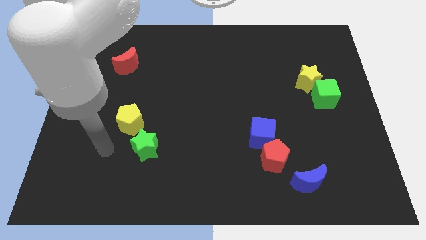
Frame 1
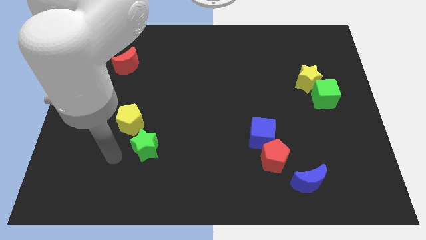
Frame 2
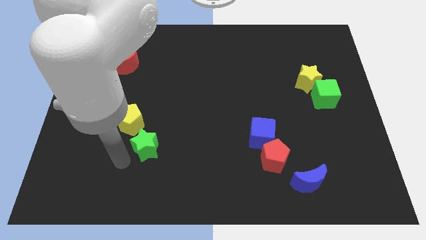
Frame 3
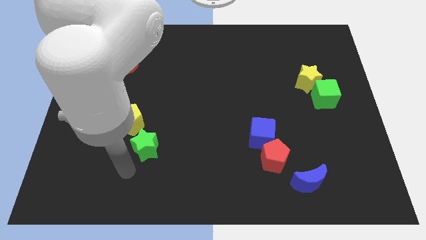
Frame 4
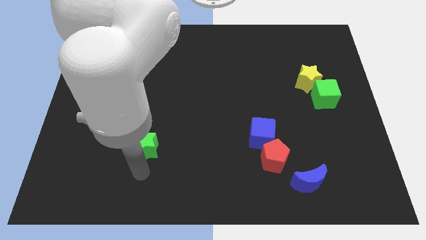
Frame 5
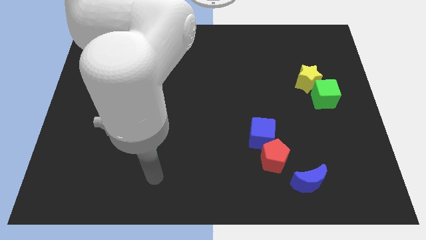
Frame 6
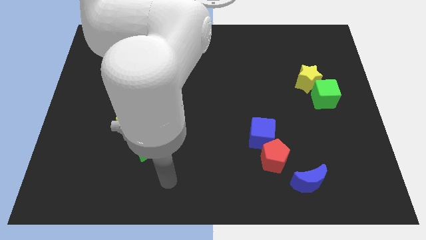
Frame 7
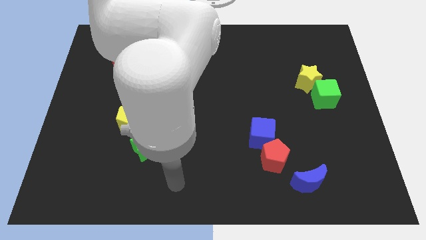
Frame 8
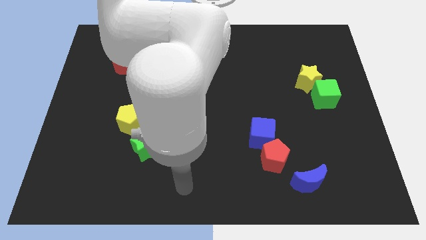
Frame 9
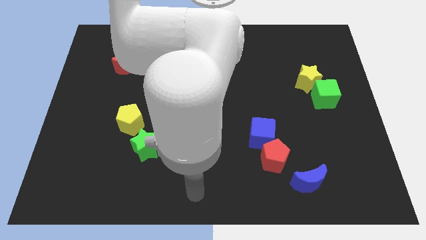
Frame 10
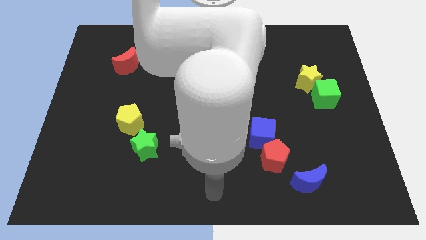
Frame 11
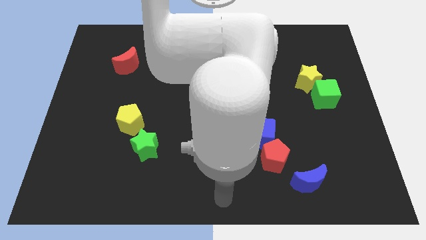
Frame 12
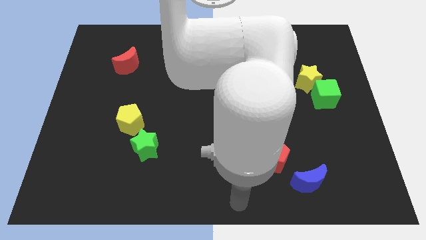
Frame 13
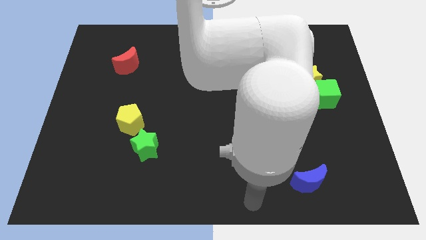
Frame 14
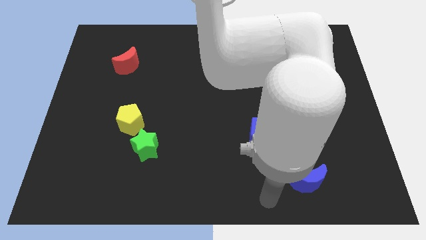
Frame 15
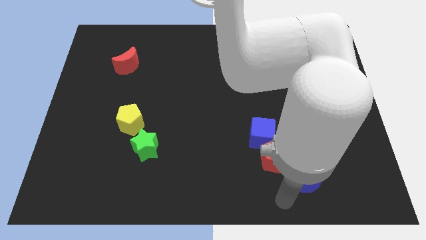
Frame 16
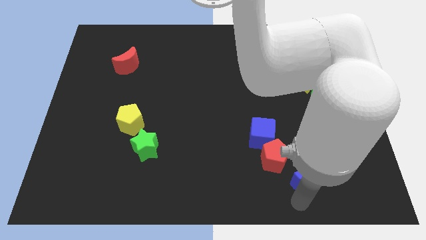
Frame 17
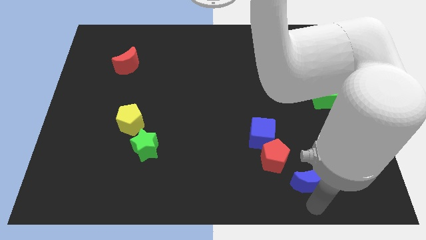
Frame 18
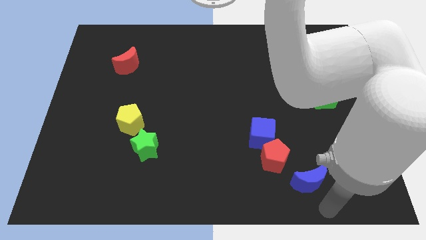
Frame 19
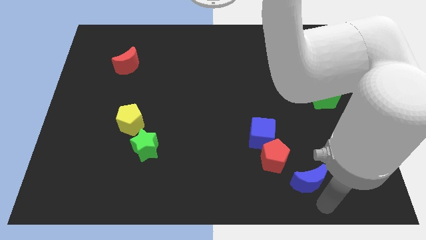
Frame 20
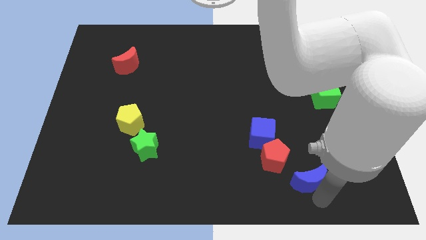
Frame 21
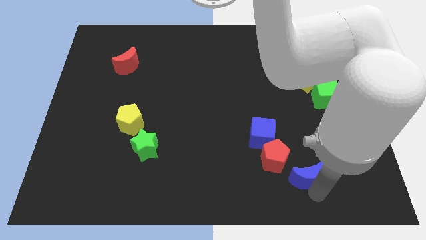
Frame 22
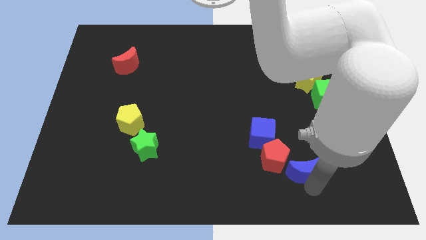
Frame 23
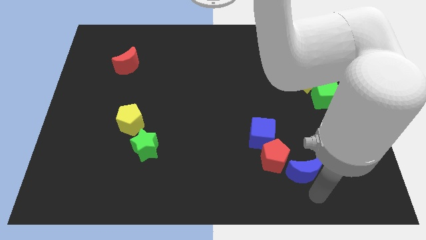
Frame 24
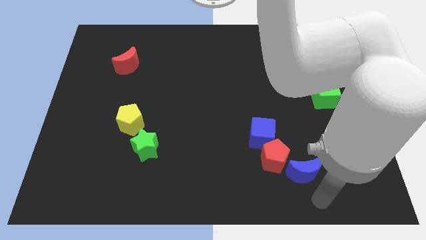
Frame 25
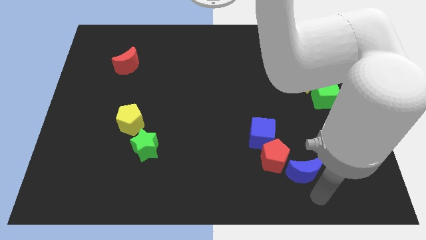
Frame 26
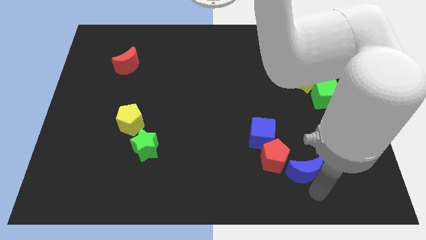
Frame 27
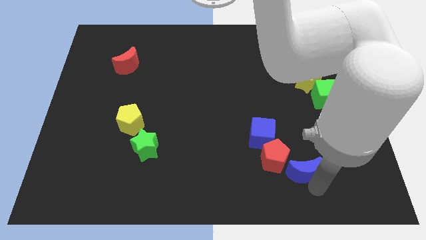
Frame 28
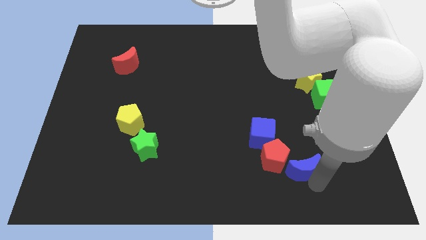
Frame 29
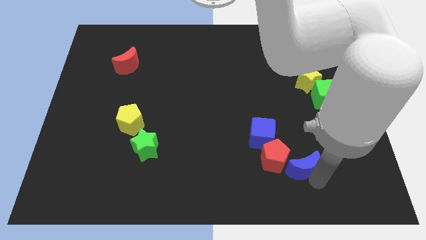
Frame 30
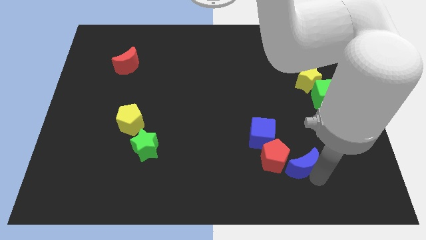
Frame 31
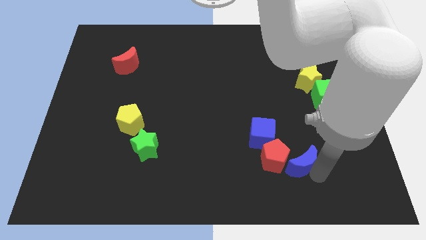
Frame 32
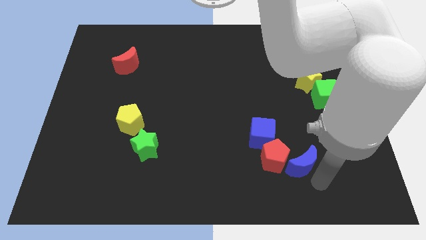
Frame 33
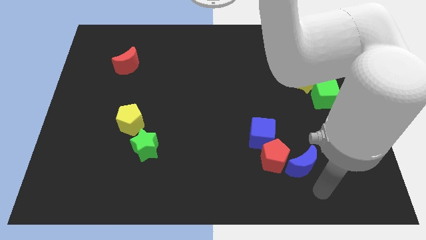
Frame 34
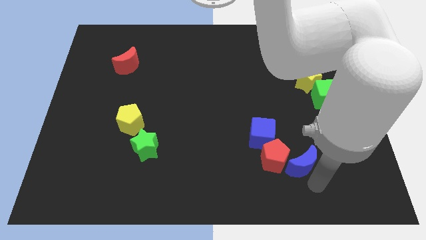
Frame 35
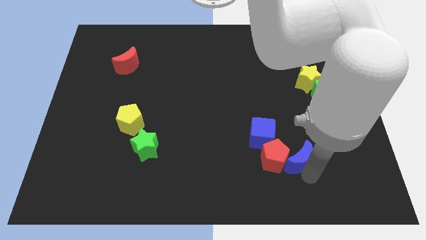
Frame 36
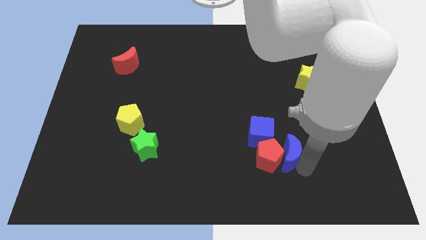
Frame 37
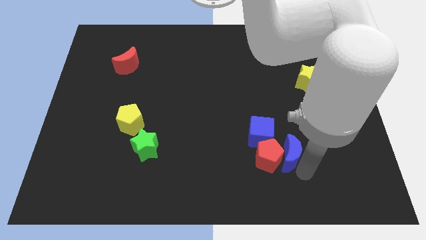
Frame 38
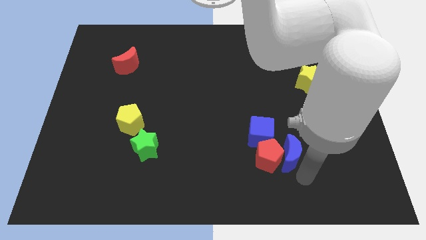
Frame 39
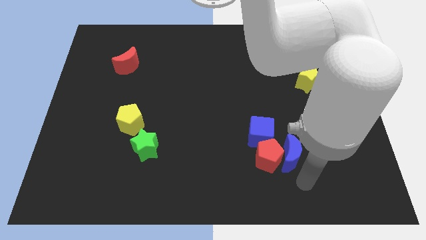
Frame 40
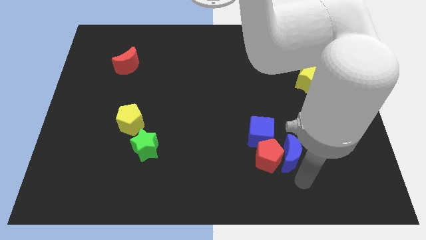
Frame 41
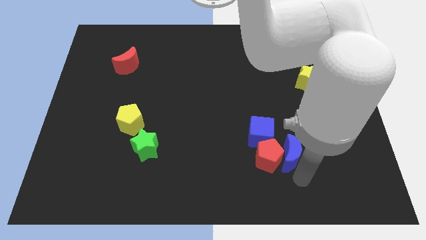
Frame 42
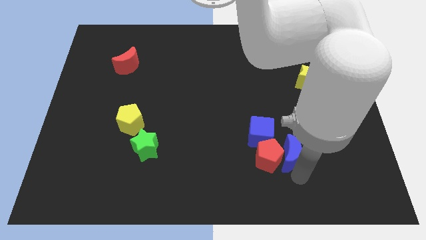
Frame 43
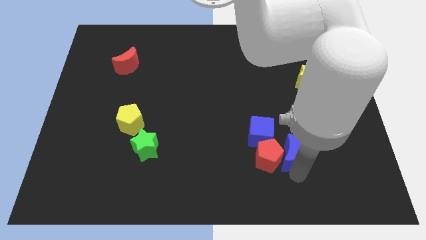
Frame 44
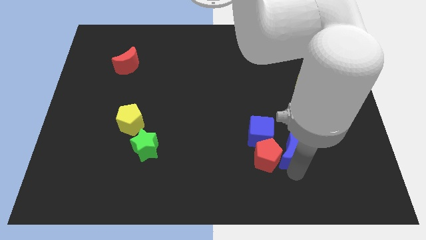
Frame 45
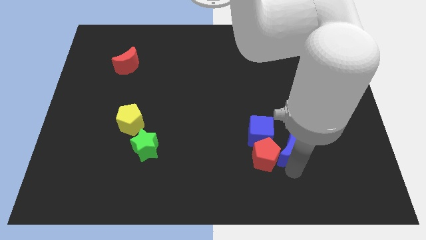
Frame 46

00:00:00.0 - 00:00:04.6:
slightly slide the blue moon up and left diagonally

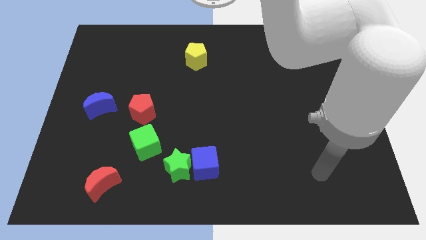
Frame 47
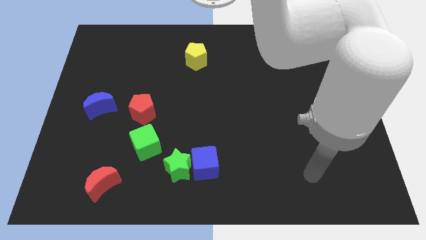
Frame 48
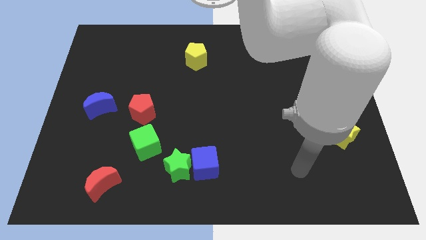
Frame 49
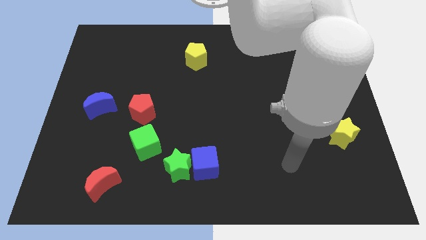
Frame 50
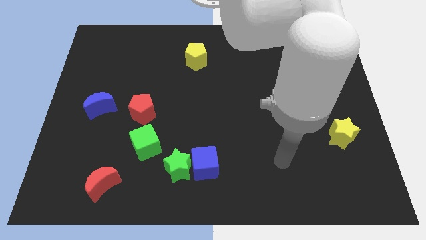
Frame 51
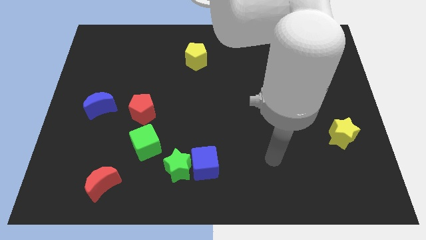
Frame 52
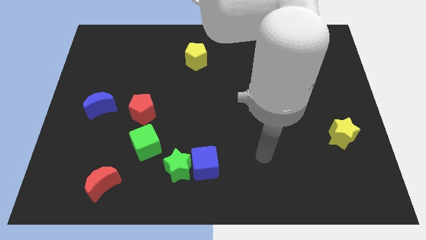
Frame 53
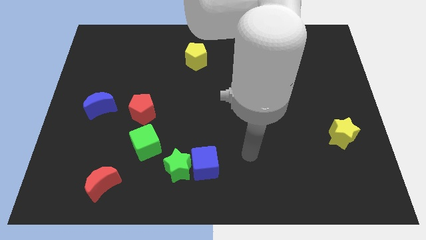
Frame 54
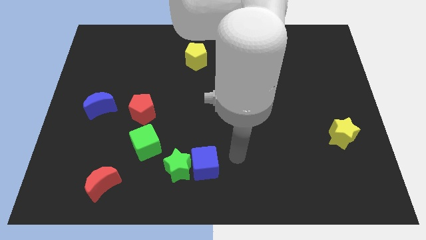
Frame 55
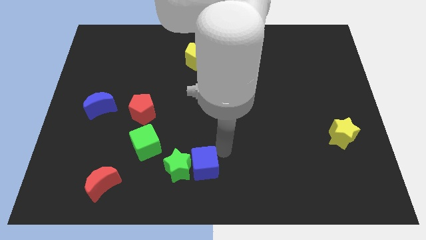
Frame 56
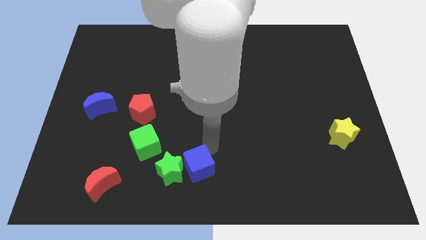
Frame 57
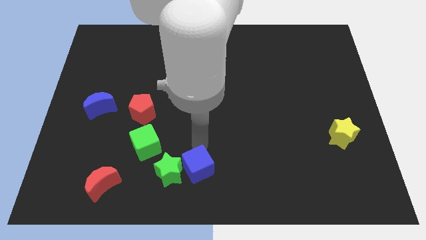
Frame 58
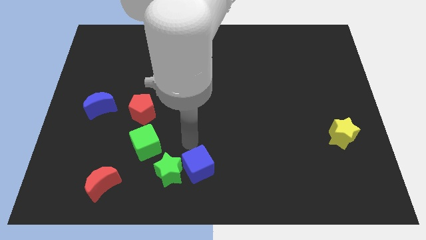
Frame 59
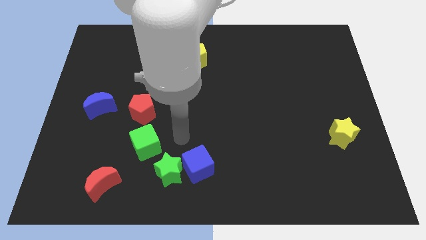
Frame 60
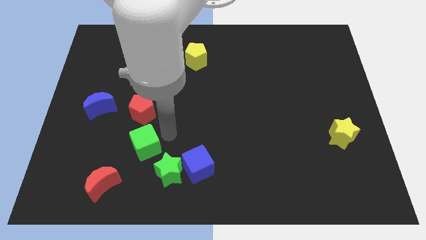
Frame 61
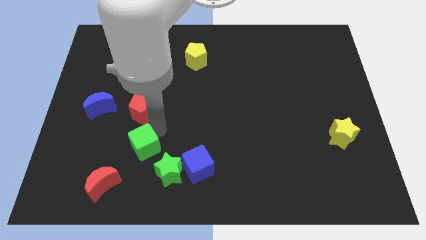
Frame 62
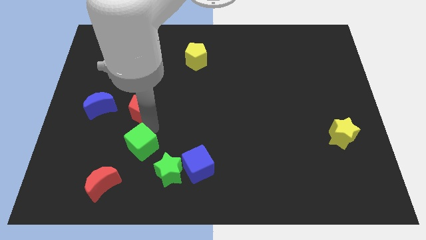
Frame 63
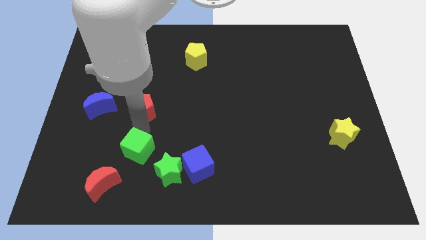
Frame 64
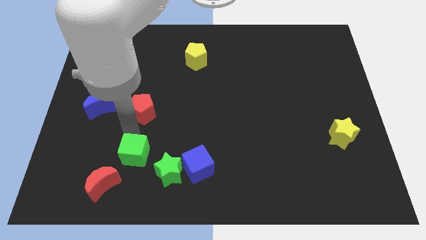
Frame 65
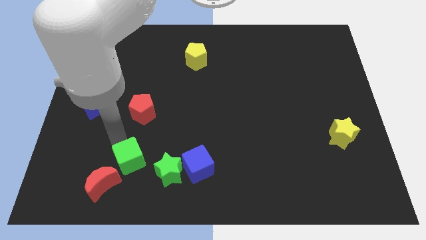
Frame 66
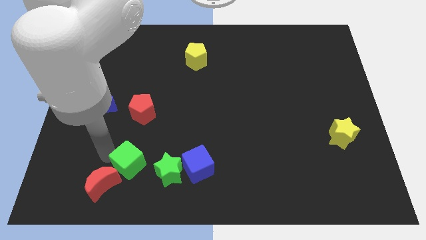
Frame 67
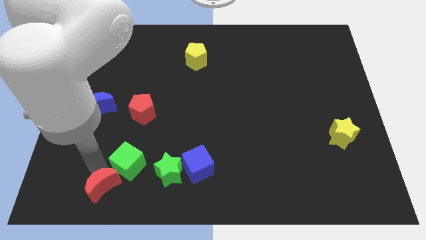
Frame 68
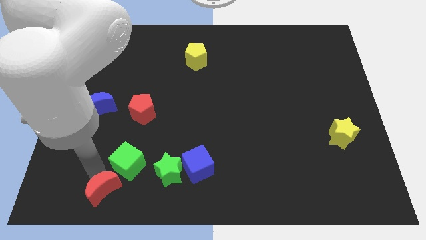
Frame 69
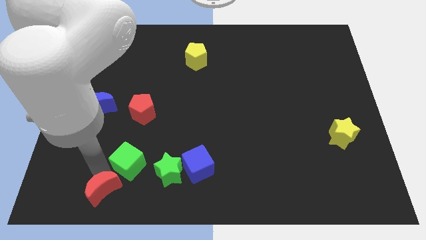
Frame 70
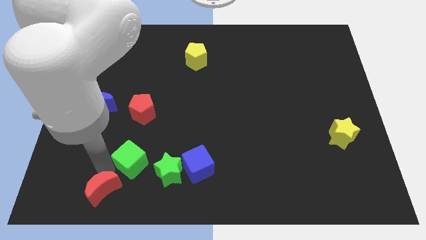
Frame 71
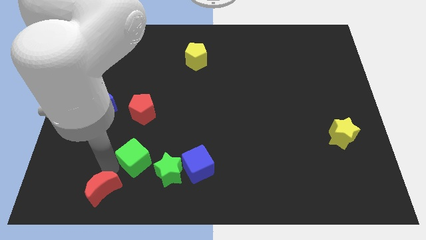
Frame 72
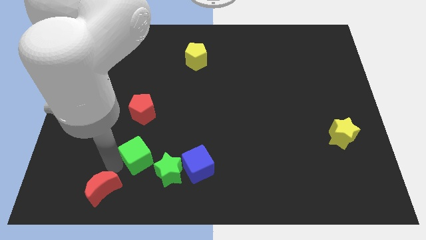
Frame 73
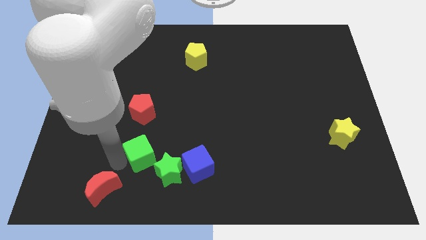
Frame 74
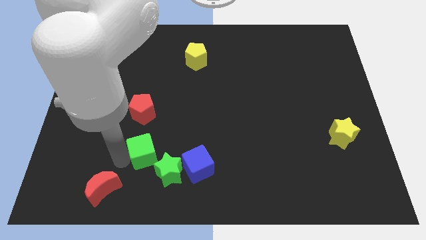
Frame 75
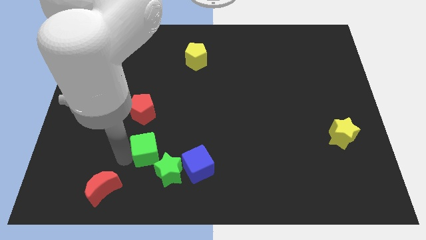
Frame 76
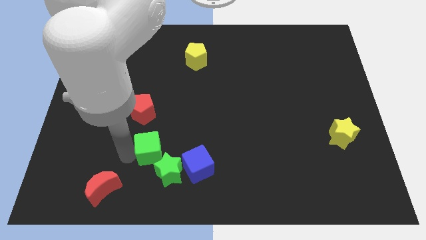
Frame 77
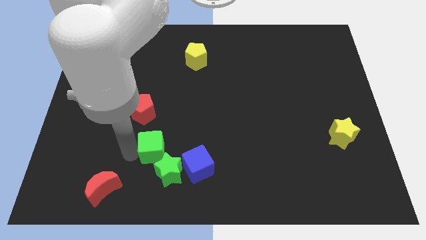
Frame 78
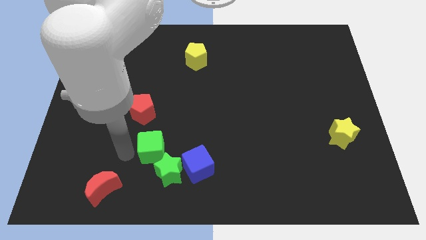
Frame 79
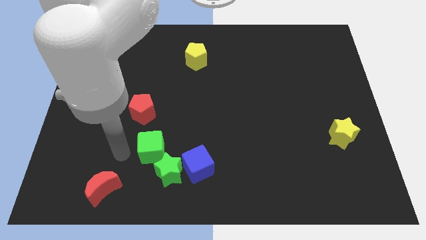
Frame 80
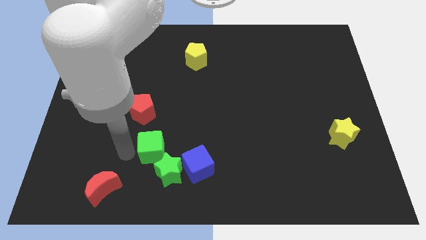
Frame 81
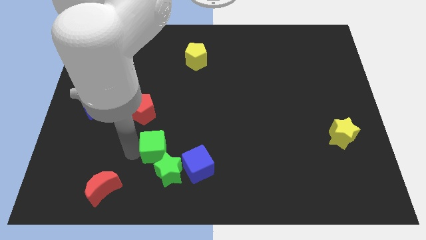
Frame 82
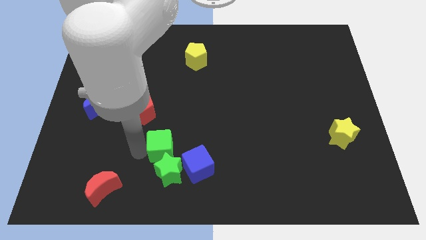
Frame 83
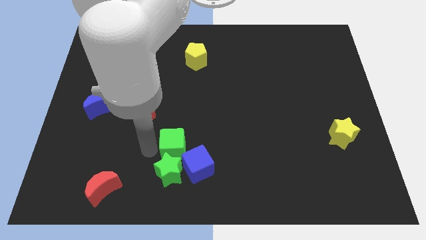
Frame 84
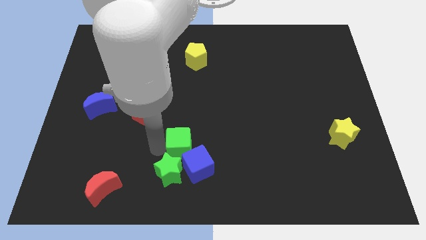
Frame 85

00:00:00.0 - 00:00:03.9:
move the green cube right slightly

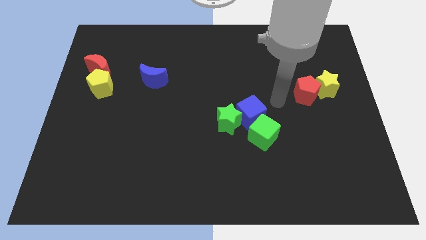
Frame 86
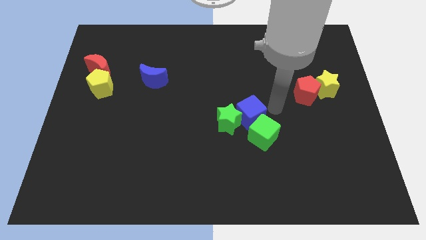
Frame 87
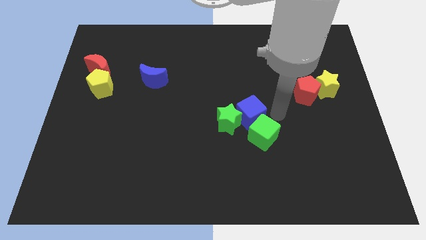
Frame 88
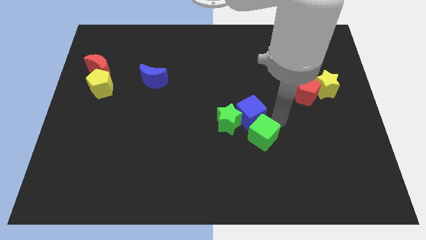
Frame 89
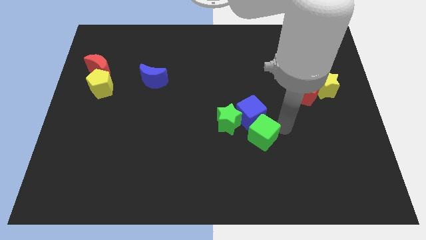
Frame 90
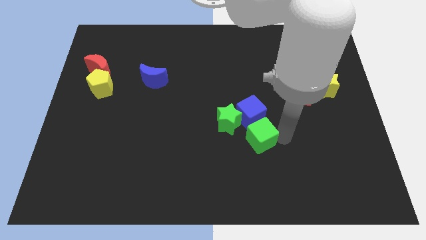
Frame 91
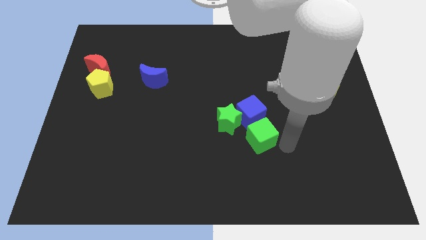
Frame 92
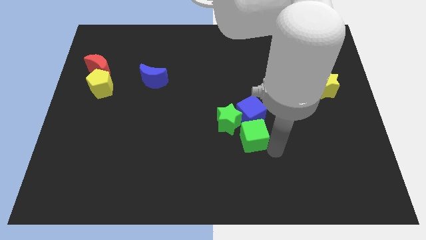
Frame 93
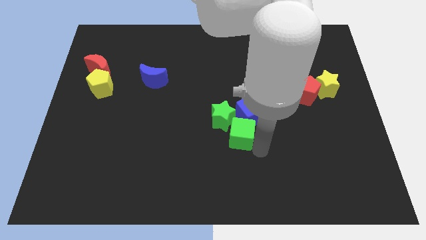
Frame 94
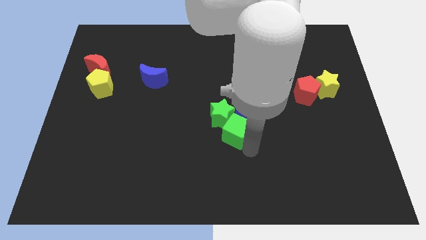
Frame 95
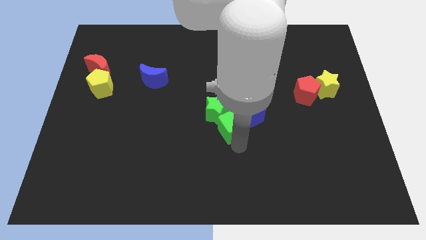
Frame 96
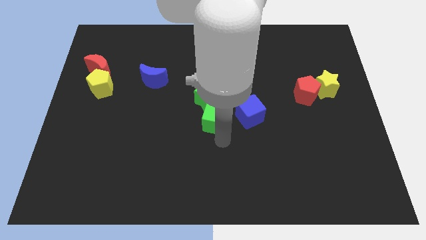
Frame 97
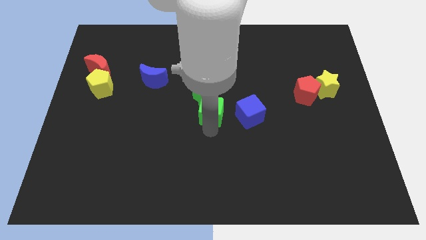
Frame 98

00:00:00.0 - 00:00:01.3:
slightly push the green star upwards
